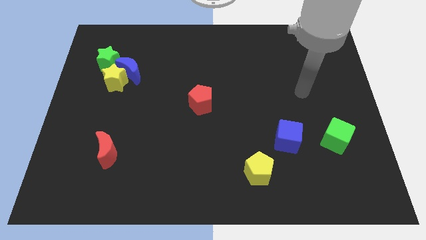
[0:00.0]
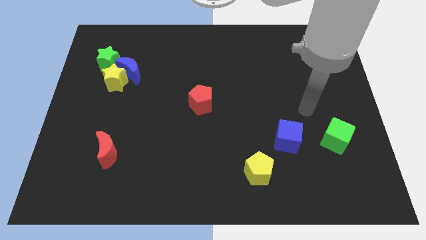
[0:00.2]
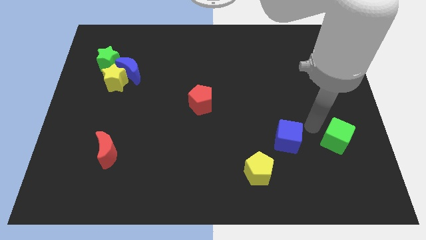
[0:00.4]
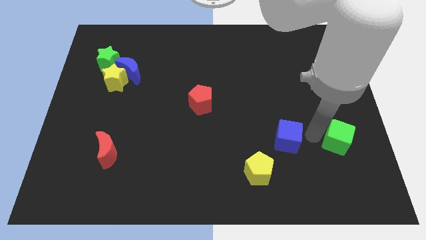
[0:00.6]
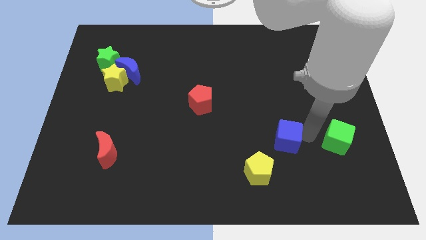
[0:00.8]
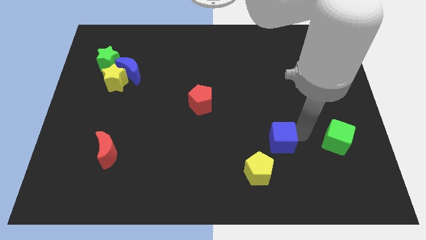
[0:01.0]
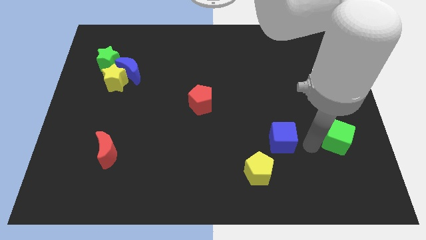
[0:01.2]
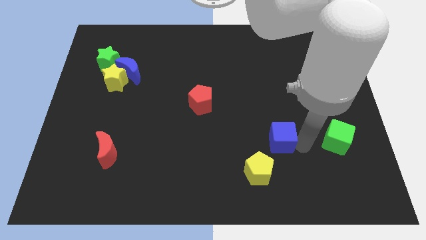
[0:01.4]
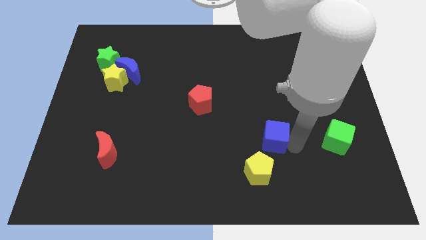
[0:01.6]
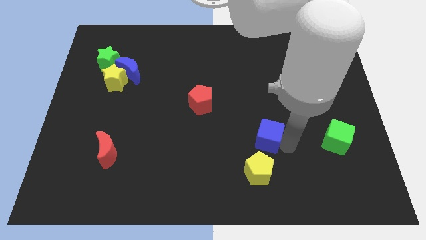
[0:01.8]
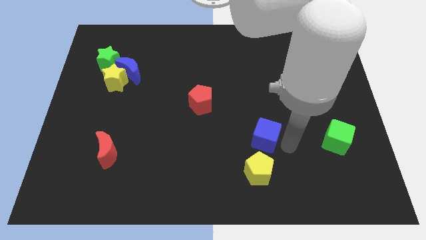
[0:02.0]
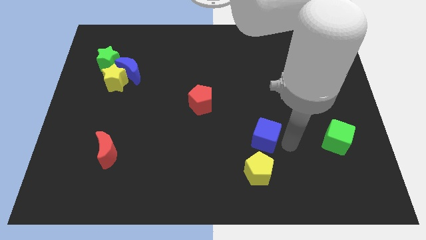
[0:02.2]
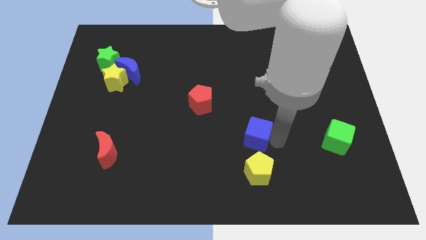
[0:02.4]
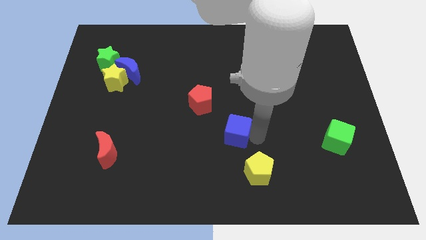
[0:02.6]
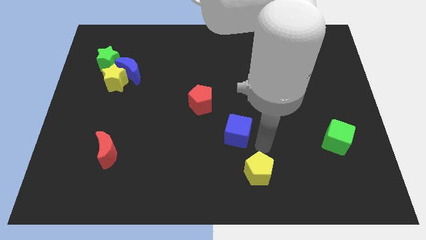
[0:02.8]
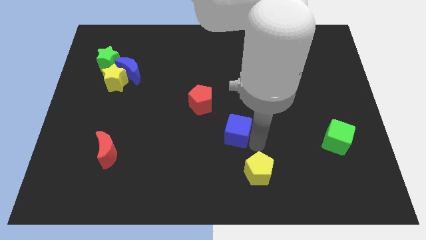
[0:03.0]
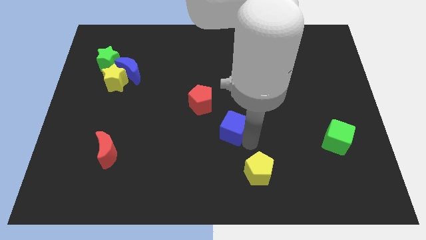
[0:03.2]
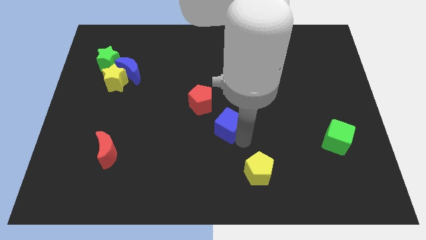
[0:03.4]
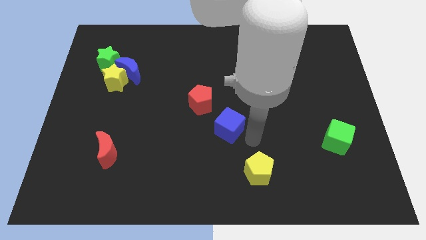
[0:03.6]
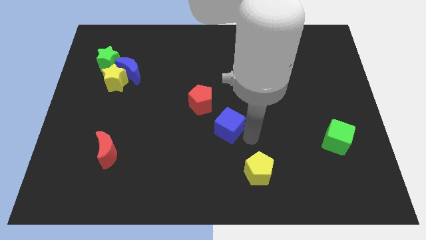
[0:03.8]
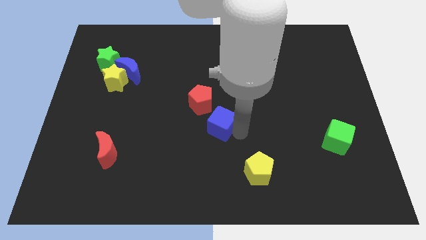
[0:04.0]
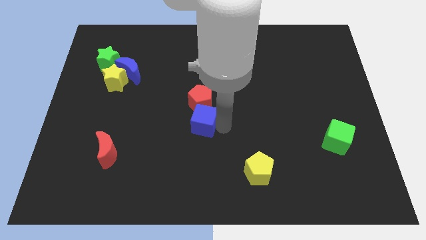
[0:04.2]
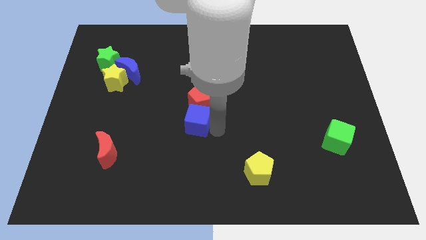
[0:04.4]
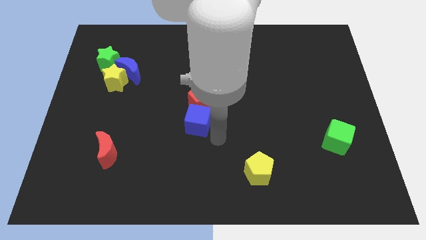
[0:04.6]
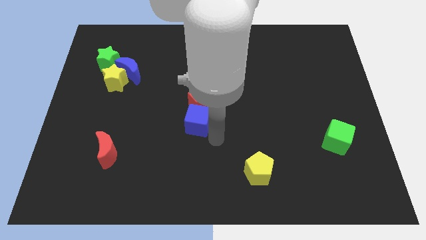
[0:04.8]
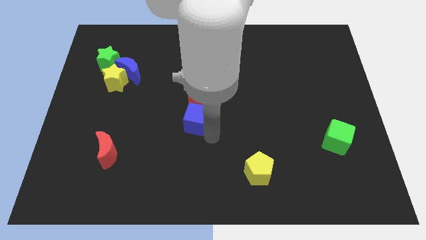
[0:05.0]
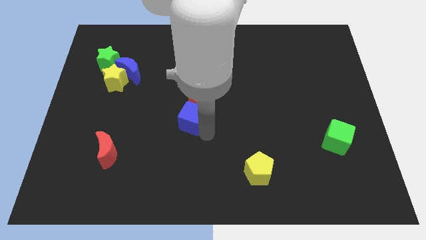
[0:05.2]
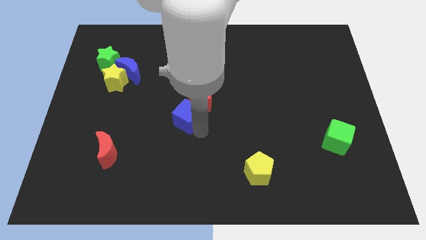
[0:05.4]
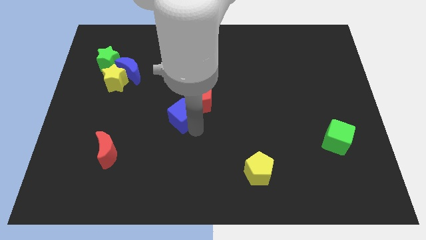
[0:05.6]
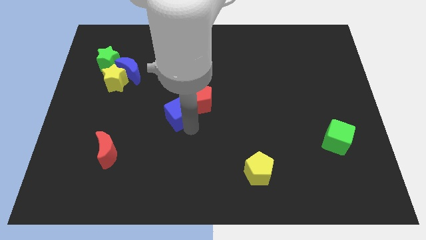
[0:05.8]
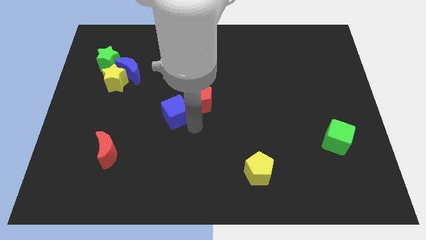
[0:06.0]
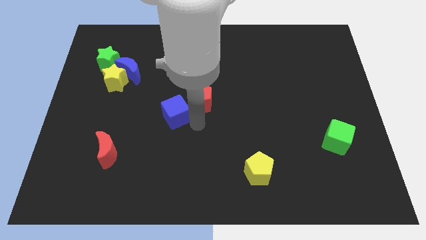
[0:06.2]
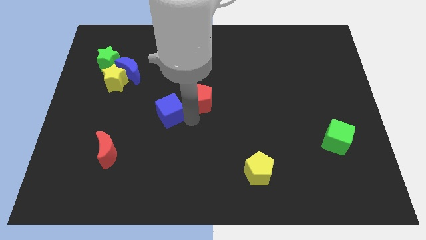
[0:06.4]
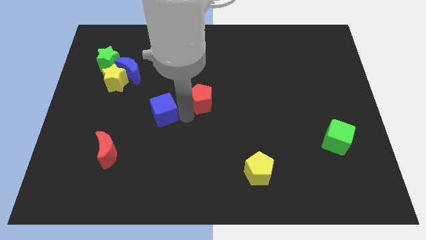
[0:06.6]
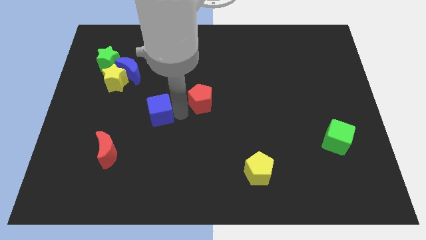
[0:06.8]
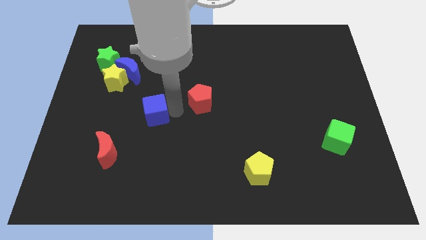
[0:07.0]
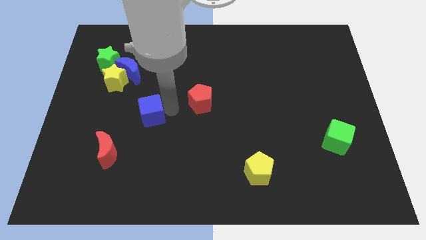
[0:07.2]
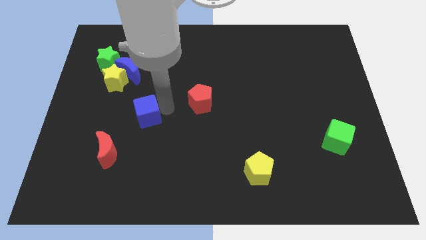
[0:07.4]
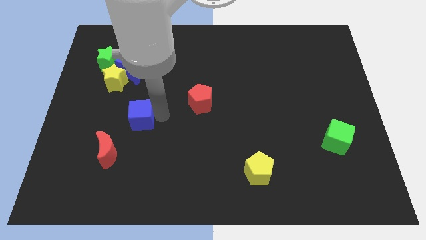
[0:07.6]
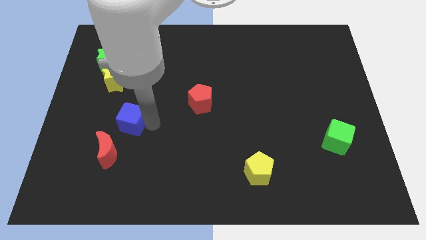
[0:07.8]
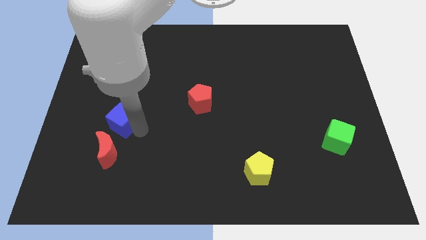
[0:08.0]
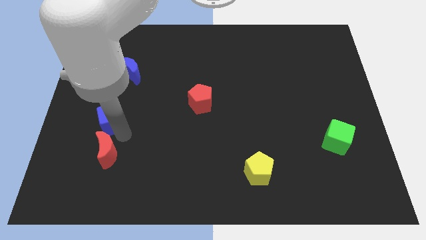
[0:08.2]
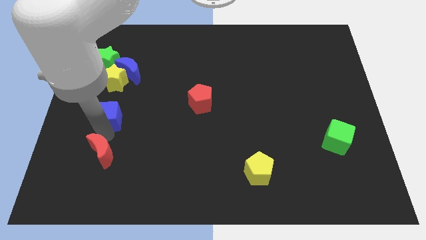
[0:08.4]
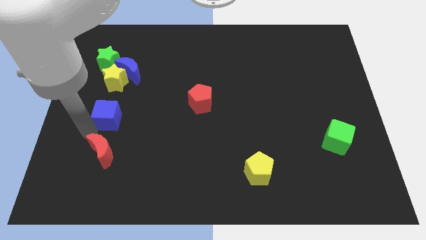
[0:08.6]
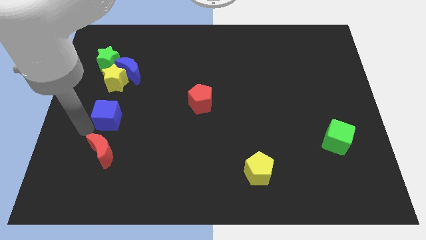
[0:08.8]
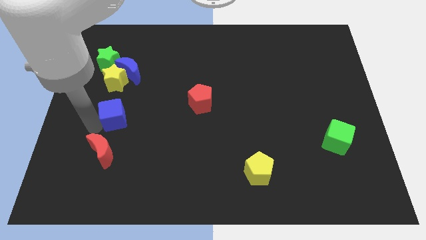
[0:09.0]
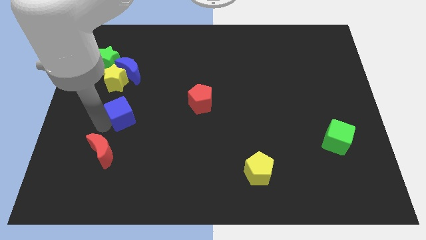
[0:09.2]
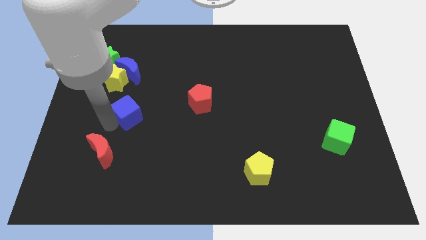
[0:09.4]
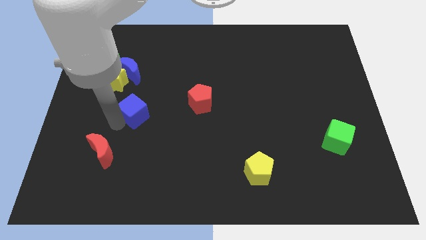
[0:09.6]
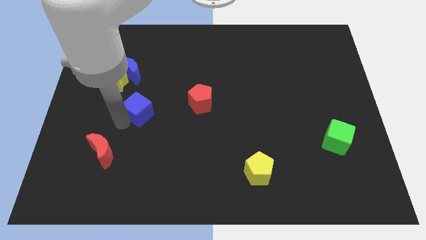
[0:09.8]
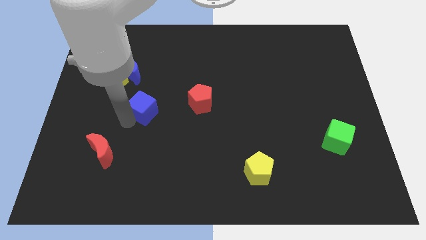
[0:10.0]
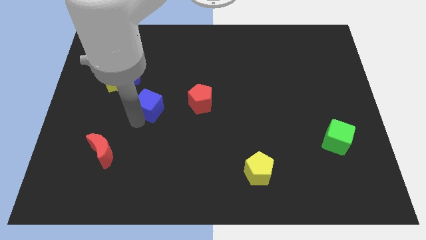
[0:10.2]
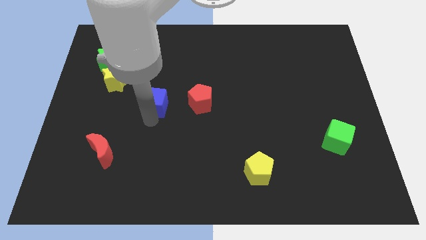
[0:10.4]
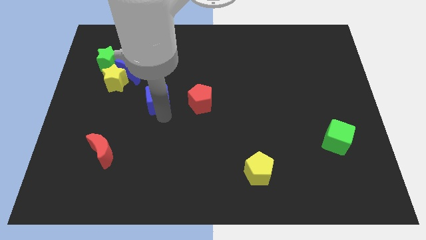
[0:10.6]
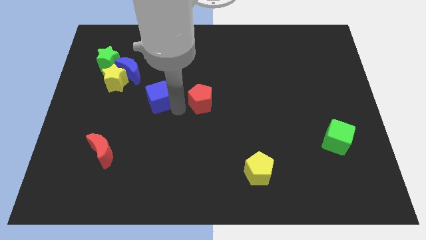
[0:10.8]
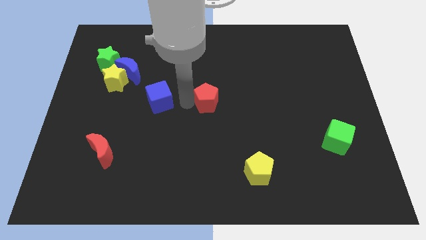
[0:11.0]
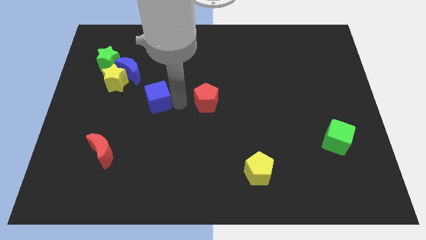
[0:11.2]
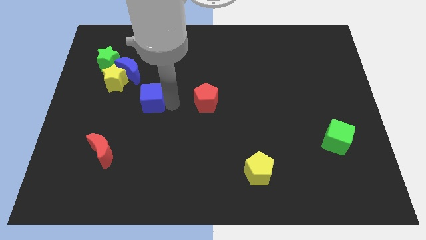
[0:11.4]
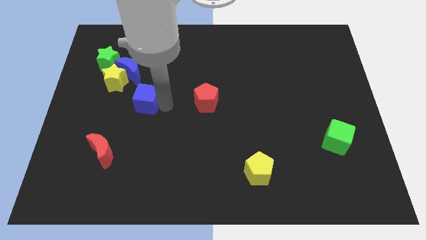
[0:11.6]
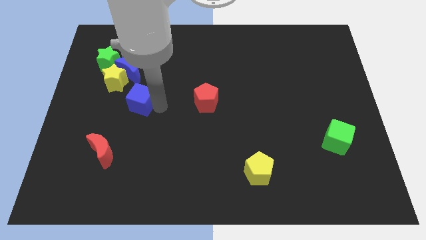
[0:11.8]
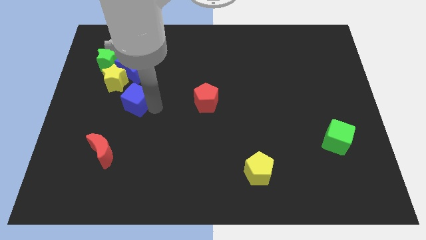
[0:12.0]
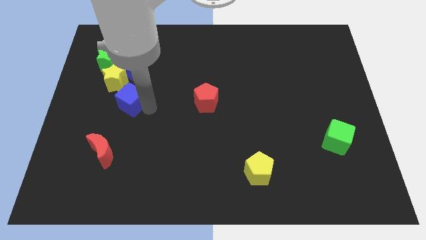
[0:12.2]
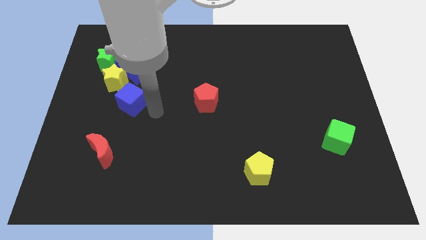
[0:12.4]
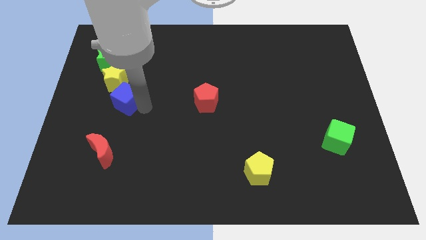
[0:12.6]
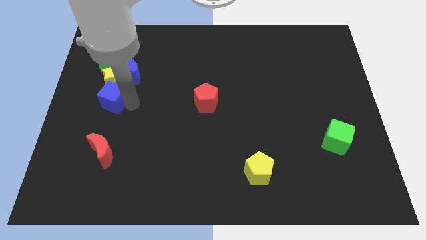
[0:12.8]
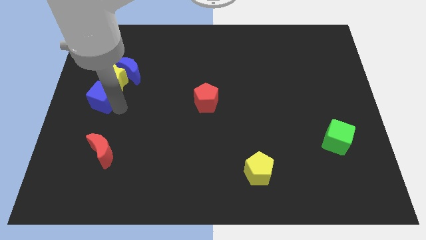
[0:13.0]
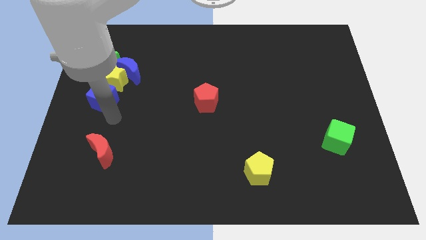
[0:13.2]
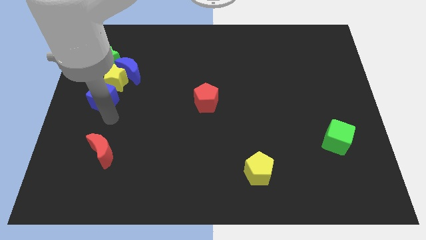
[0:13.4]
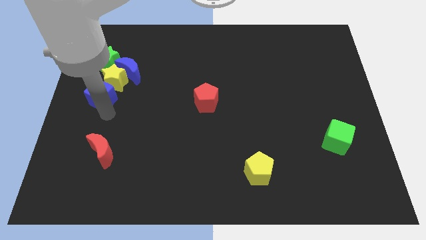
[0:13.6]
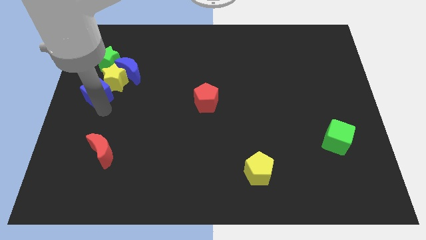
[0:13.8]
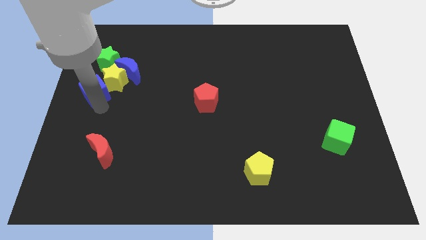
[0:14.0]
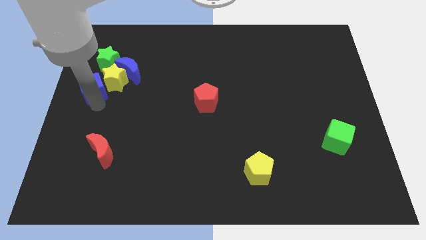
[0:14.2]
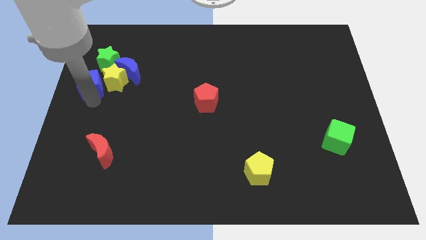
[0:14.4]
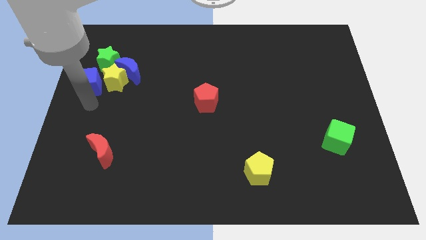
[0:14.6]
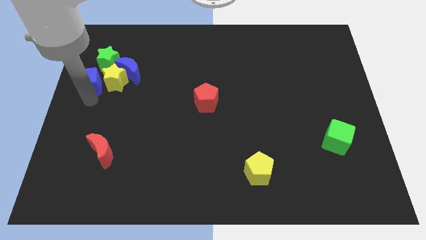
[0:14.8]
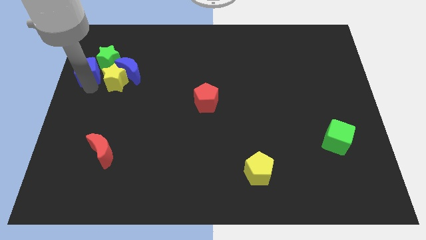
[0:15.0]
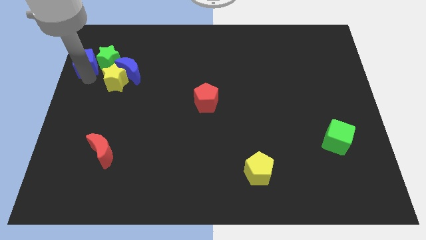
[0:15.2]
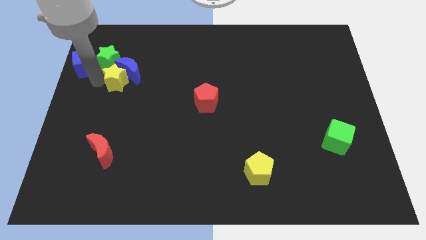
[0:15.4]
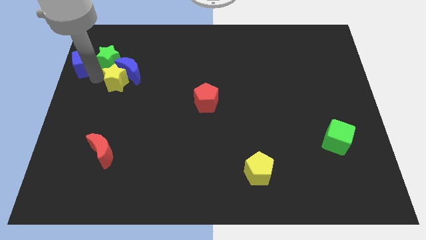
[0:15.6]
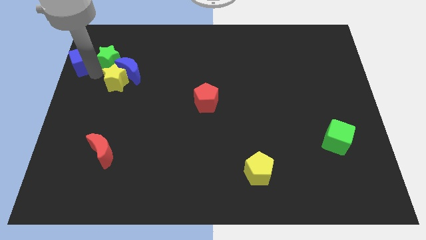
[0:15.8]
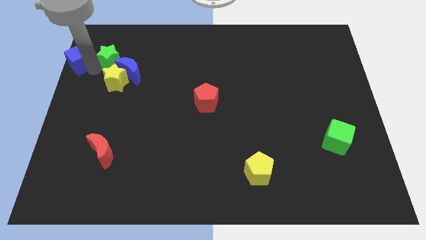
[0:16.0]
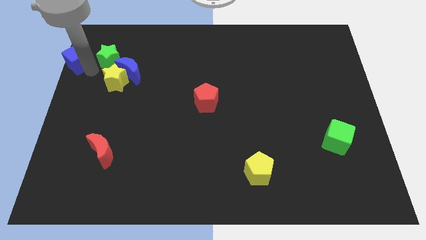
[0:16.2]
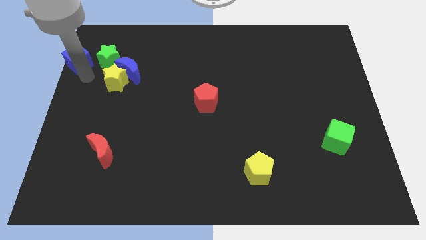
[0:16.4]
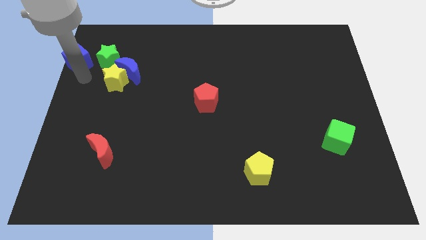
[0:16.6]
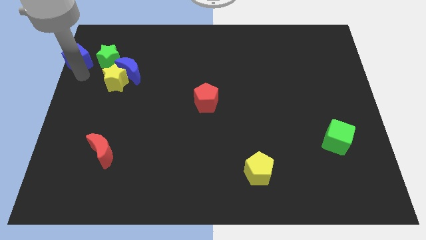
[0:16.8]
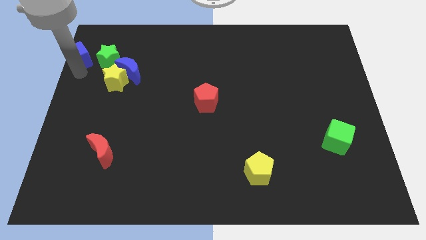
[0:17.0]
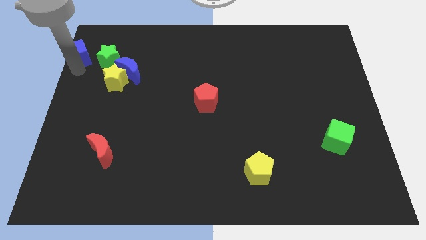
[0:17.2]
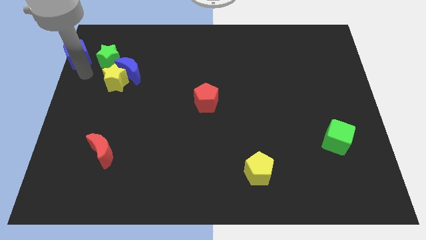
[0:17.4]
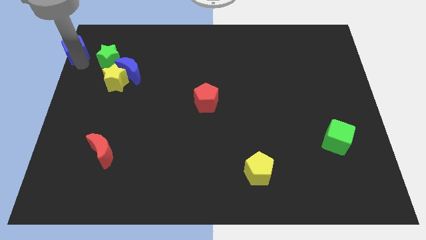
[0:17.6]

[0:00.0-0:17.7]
move the blue cube to the top left of the board
